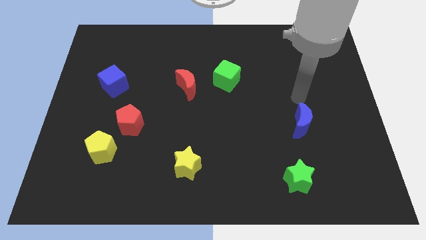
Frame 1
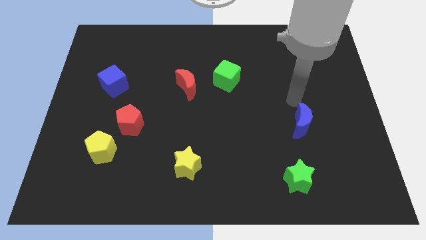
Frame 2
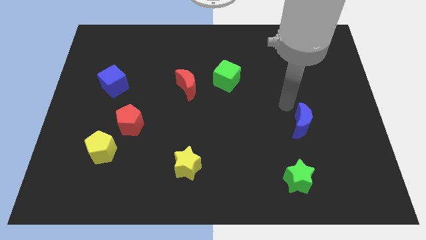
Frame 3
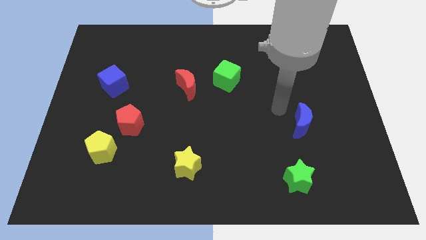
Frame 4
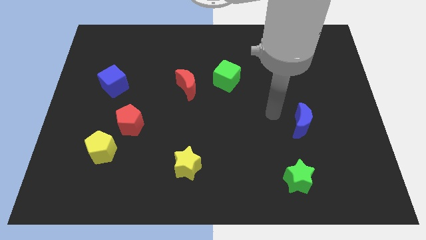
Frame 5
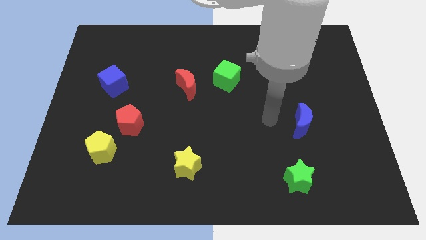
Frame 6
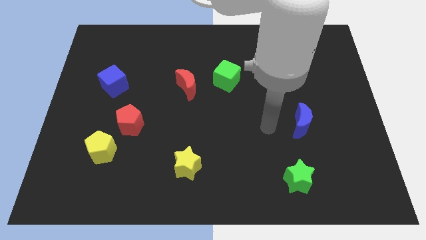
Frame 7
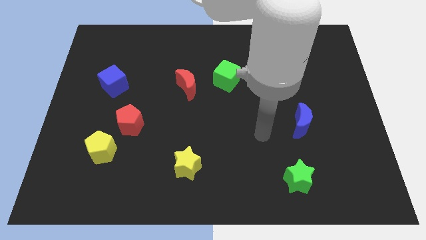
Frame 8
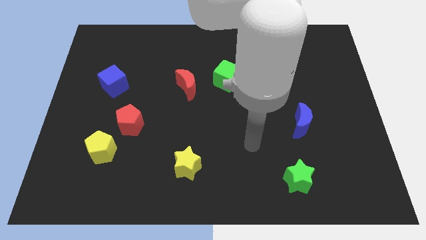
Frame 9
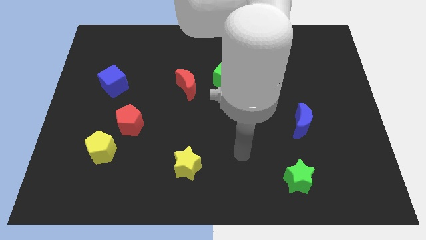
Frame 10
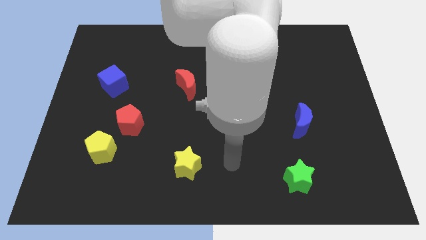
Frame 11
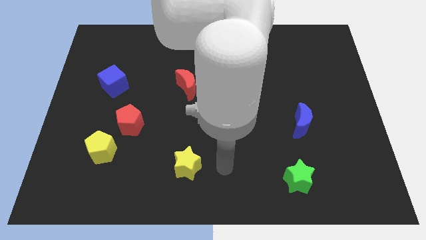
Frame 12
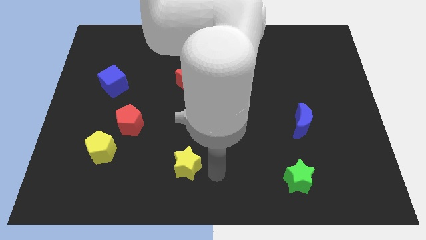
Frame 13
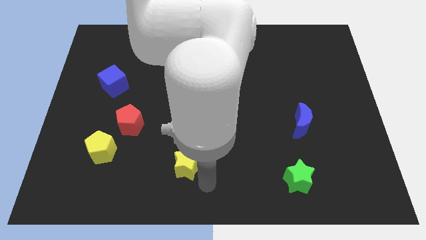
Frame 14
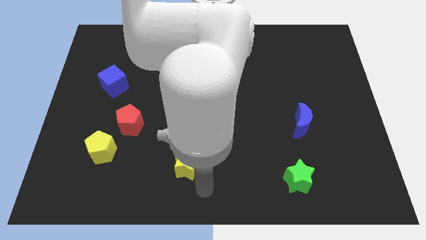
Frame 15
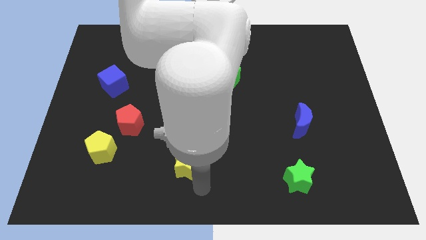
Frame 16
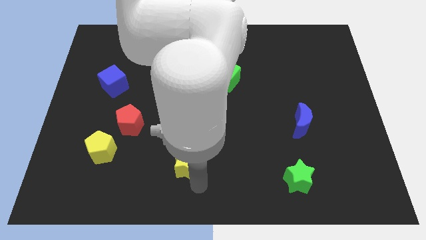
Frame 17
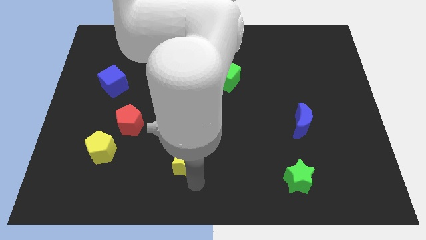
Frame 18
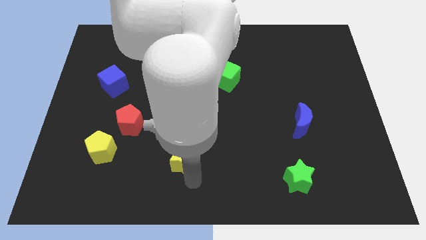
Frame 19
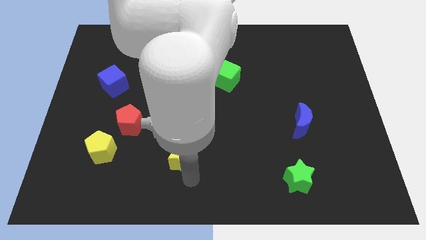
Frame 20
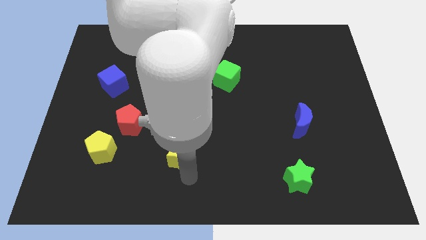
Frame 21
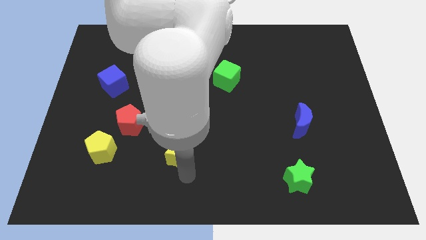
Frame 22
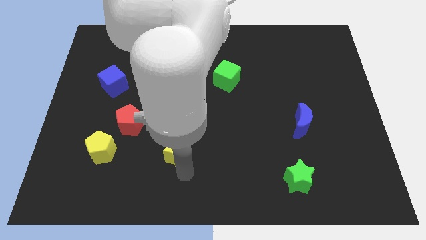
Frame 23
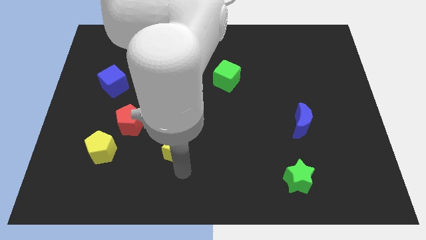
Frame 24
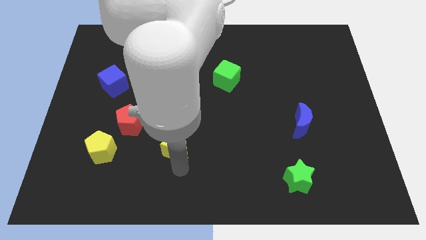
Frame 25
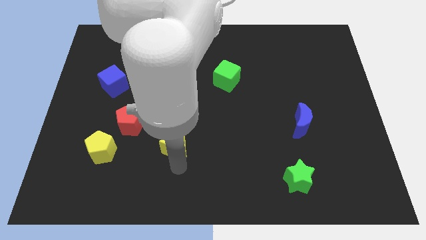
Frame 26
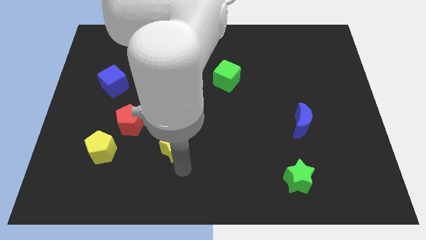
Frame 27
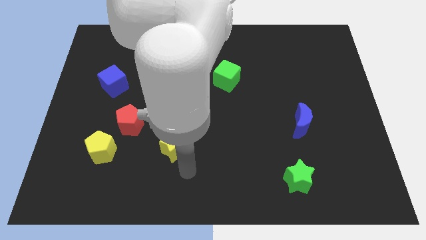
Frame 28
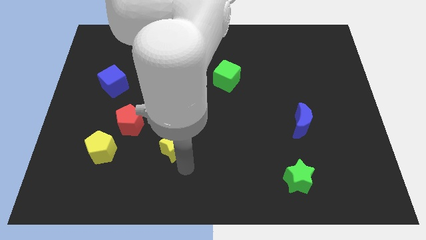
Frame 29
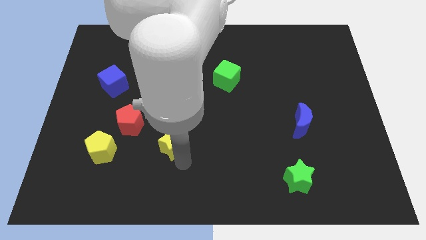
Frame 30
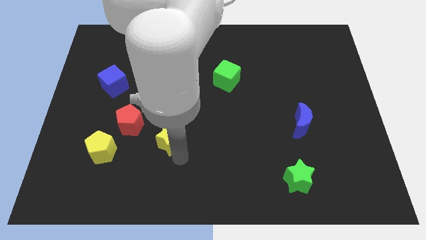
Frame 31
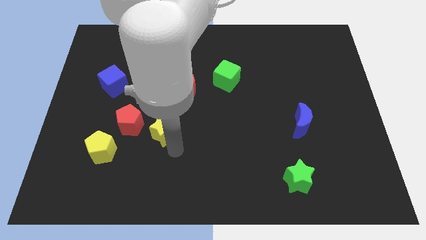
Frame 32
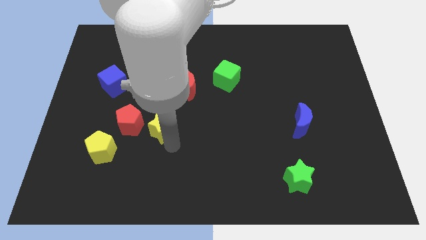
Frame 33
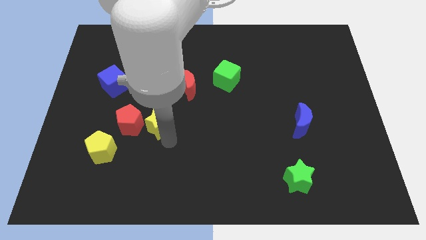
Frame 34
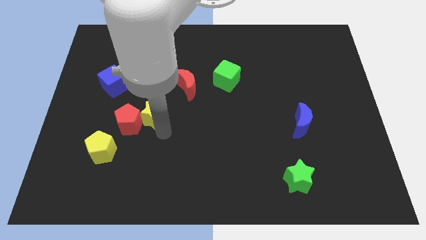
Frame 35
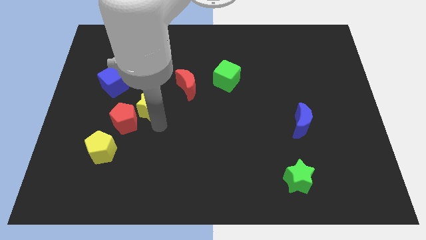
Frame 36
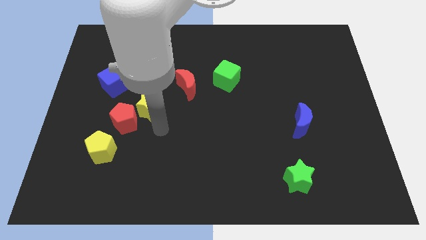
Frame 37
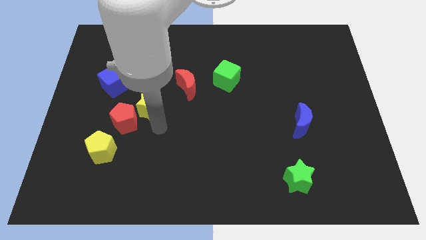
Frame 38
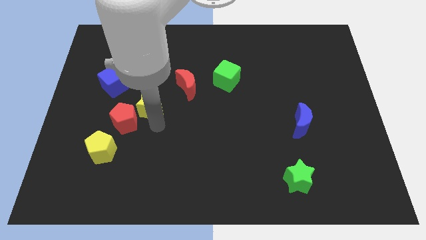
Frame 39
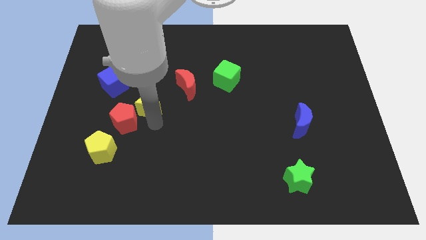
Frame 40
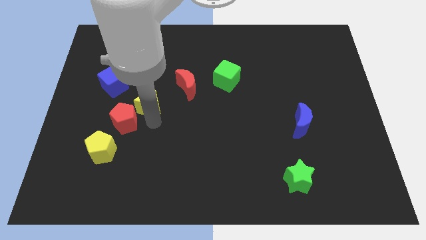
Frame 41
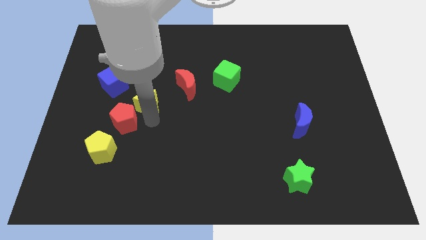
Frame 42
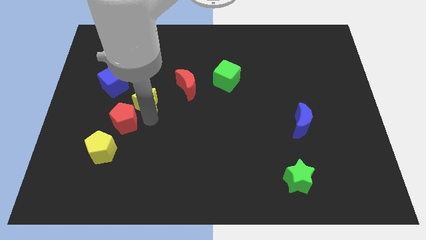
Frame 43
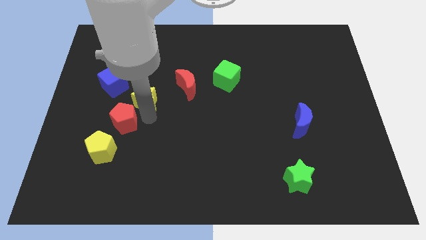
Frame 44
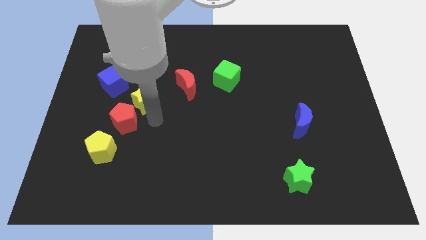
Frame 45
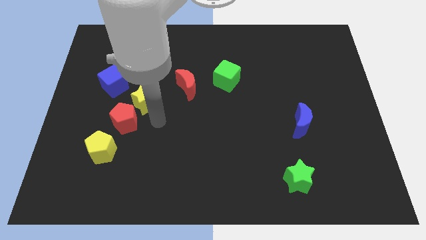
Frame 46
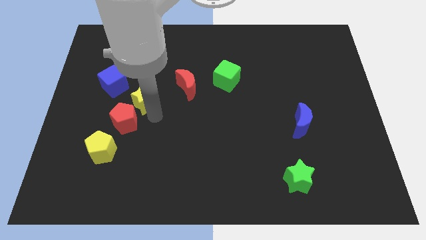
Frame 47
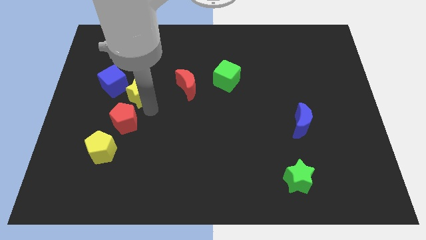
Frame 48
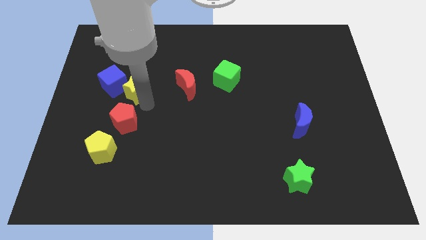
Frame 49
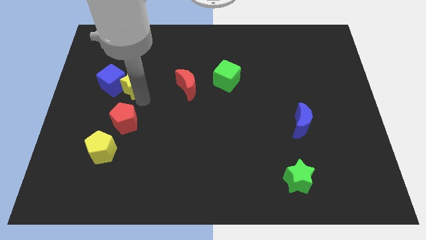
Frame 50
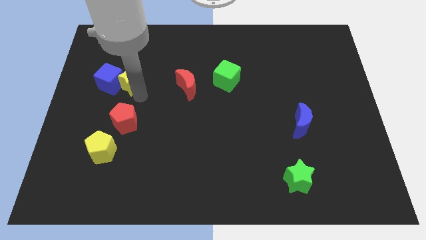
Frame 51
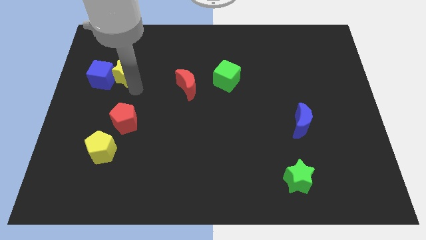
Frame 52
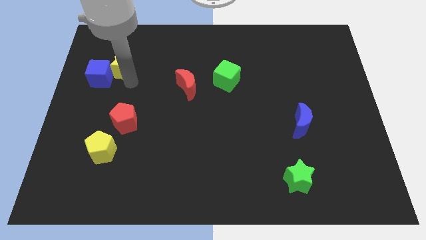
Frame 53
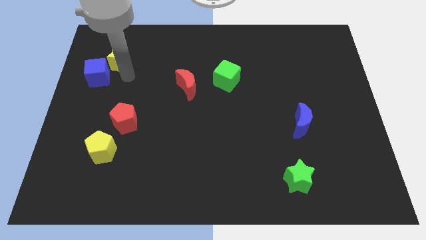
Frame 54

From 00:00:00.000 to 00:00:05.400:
put the yellow star to the top of the blue cube

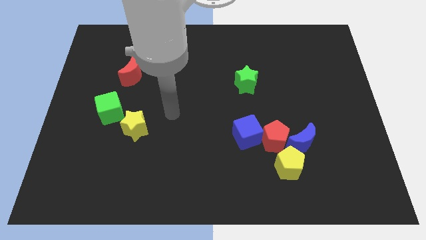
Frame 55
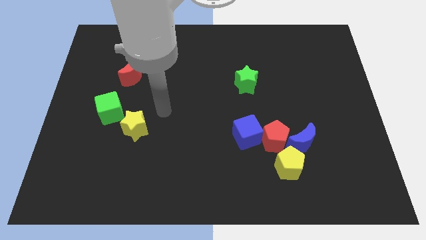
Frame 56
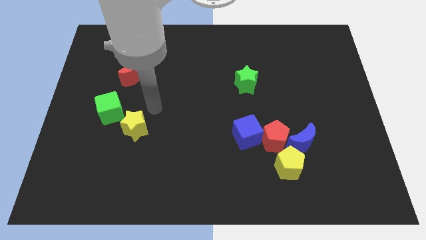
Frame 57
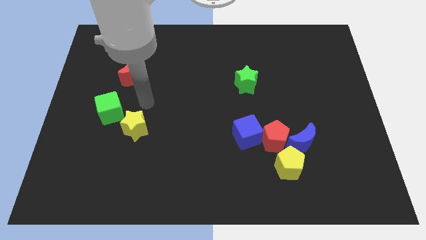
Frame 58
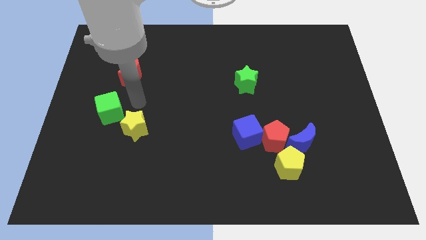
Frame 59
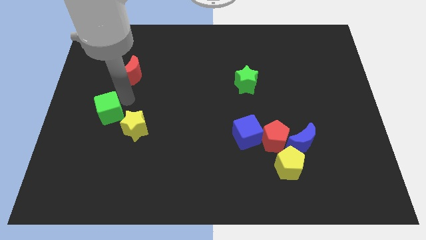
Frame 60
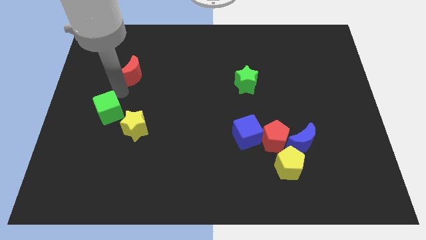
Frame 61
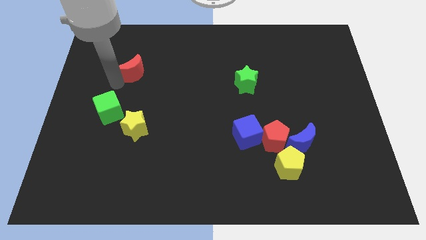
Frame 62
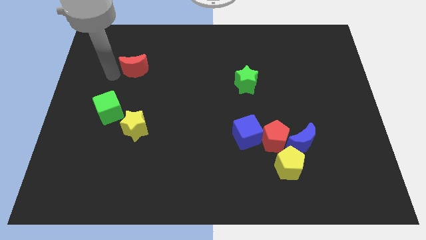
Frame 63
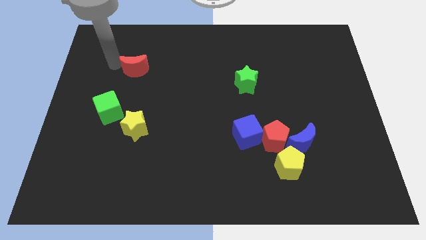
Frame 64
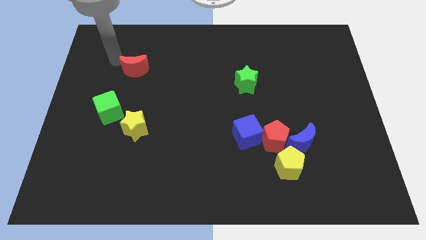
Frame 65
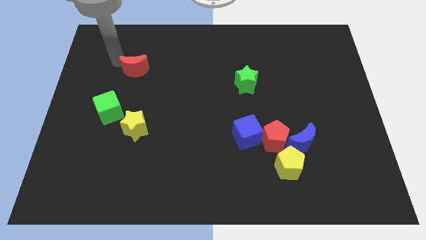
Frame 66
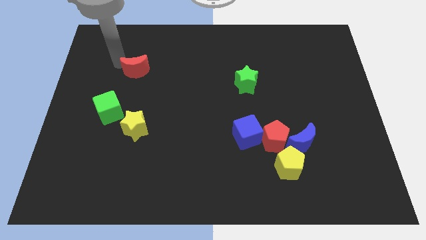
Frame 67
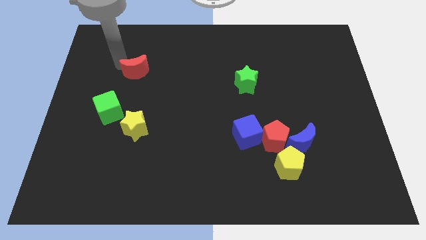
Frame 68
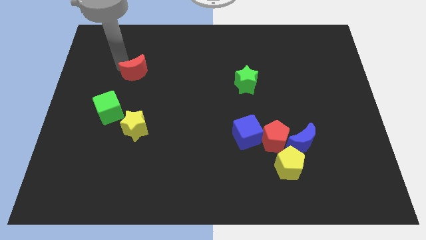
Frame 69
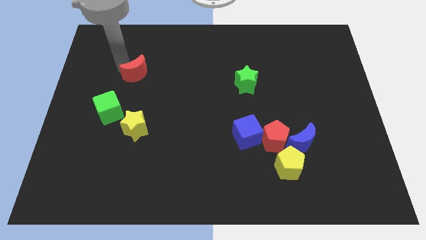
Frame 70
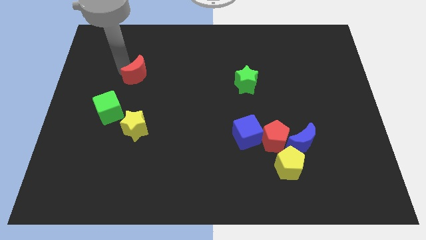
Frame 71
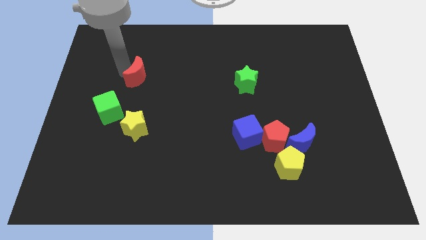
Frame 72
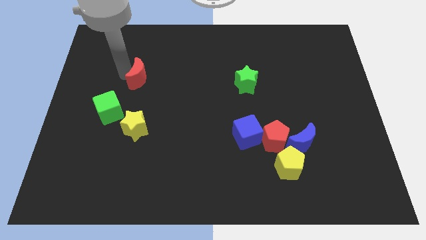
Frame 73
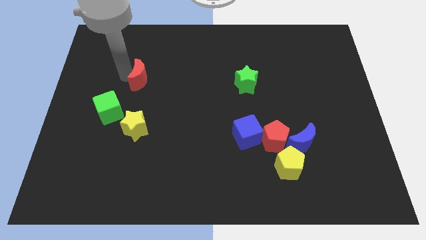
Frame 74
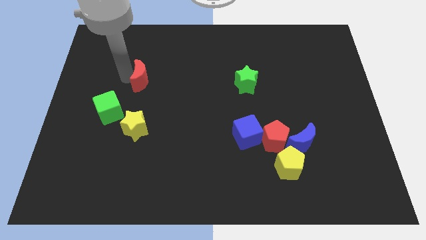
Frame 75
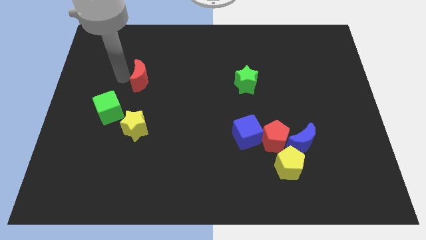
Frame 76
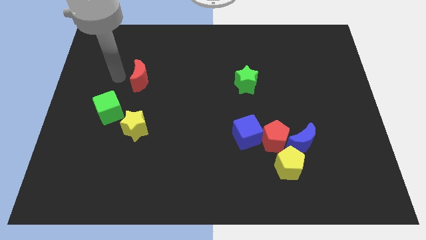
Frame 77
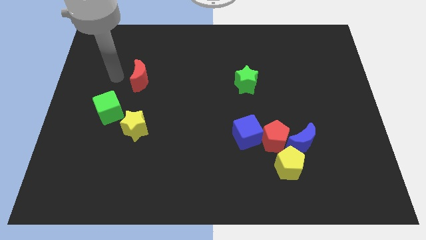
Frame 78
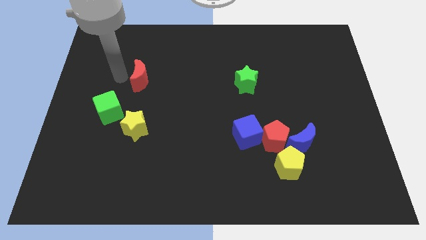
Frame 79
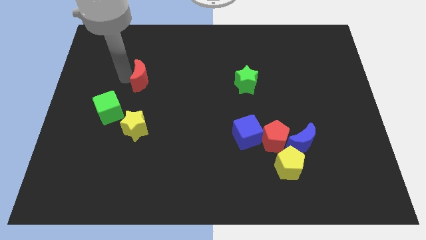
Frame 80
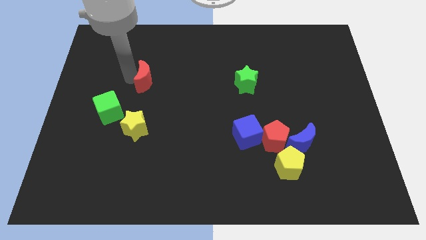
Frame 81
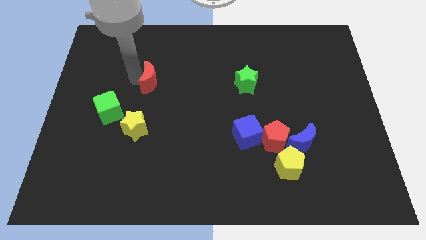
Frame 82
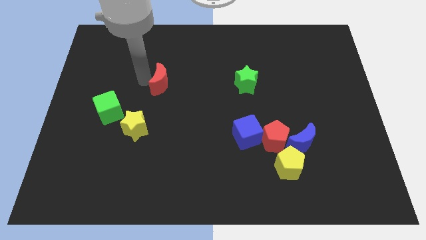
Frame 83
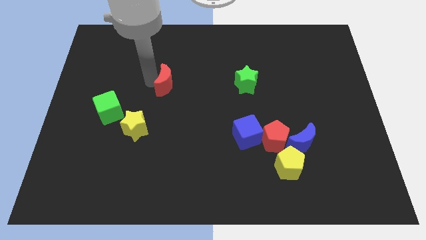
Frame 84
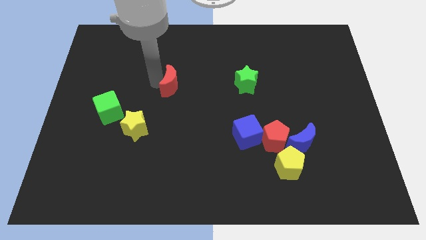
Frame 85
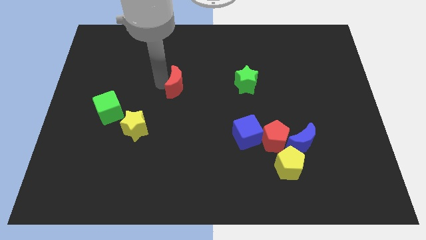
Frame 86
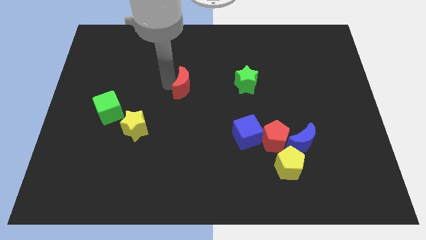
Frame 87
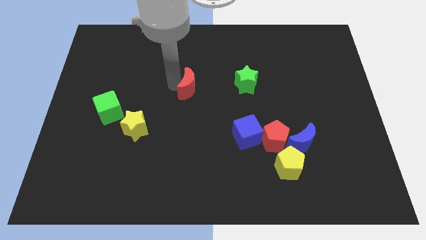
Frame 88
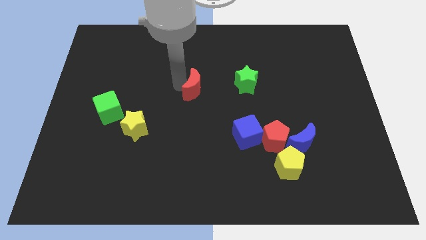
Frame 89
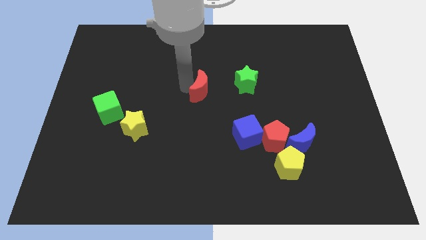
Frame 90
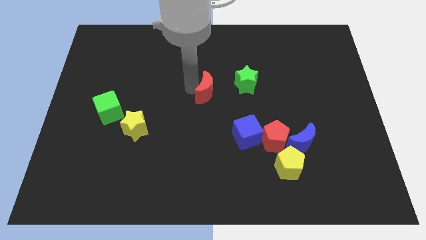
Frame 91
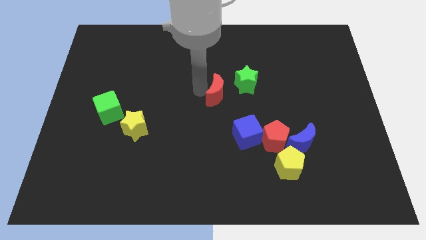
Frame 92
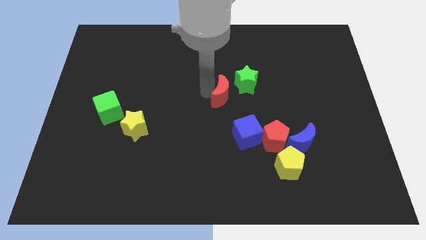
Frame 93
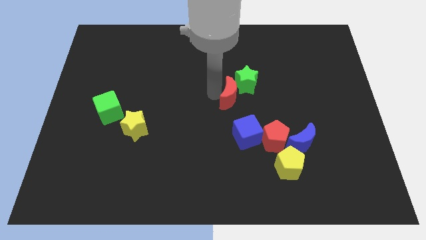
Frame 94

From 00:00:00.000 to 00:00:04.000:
push the red moon to the top side of the blue cube
